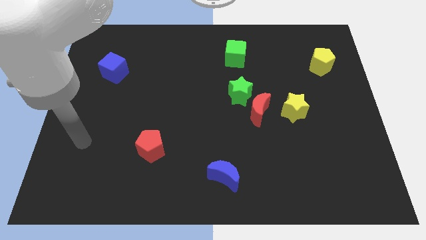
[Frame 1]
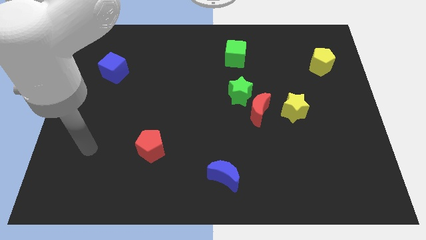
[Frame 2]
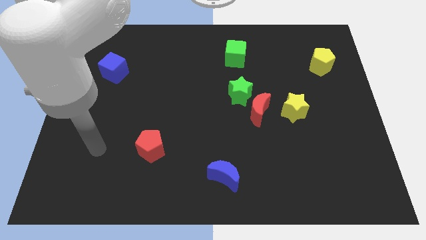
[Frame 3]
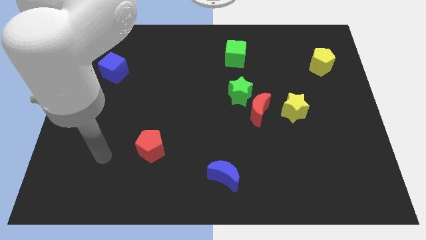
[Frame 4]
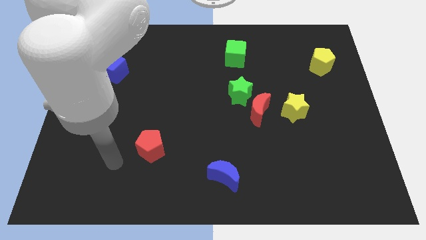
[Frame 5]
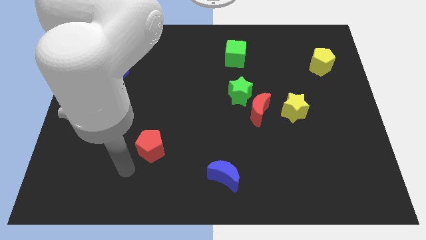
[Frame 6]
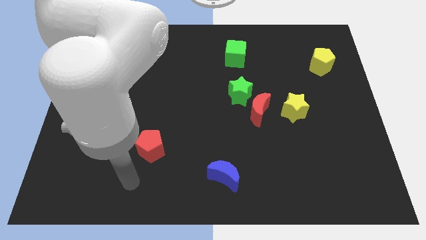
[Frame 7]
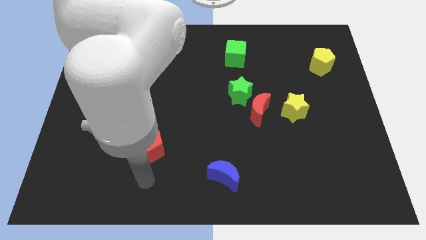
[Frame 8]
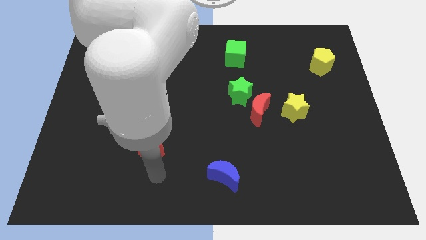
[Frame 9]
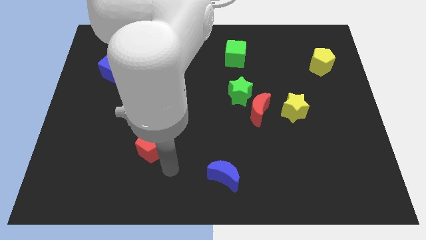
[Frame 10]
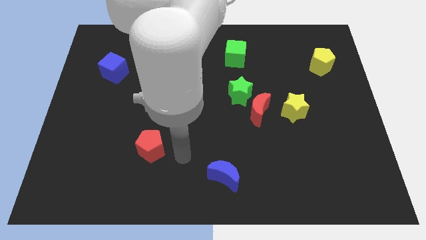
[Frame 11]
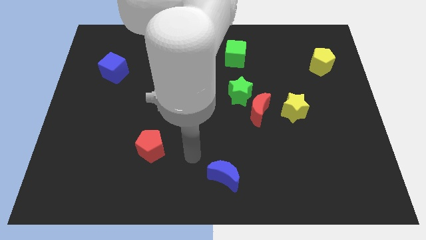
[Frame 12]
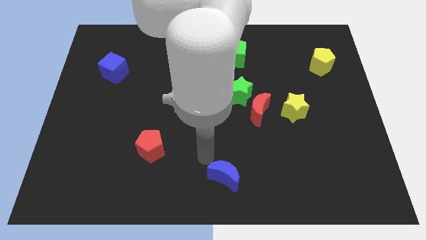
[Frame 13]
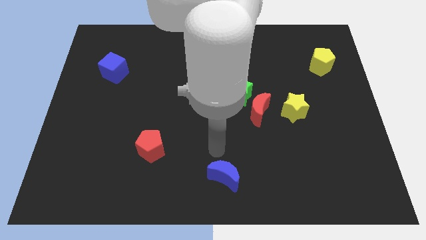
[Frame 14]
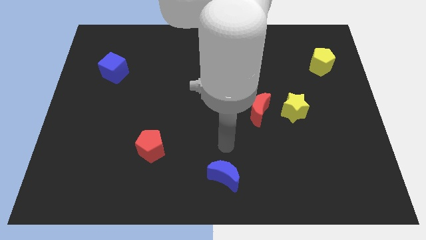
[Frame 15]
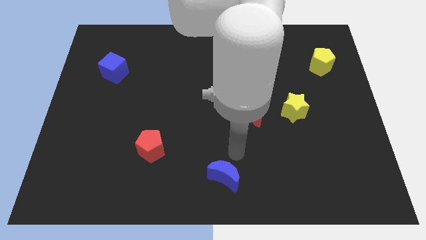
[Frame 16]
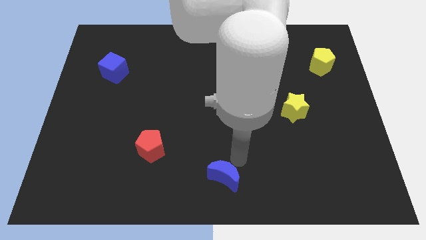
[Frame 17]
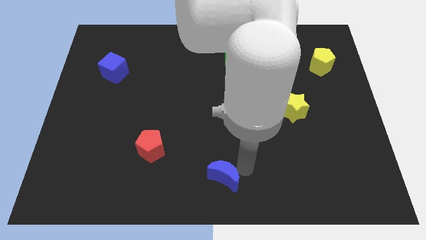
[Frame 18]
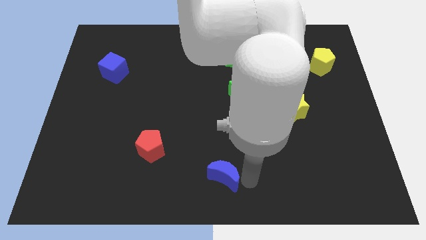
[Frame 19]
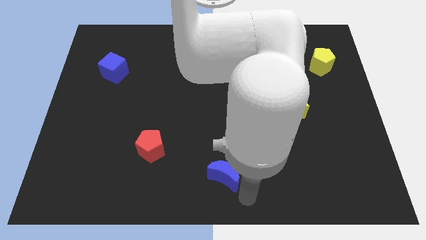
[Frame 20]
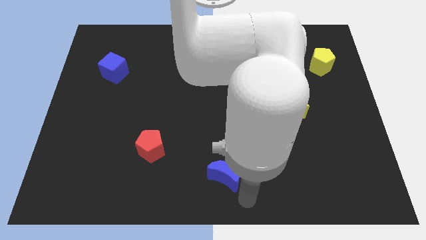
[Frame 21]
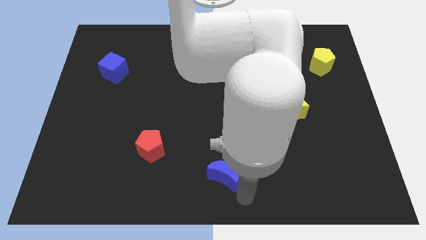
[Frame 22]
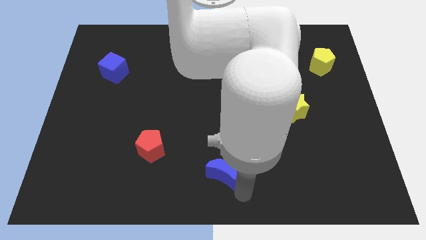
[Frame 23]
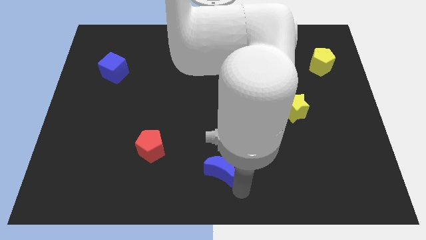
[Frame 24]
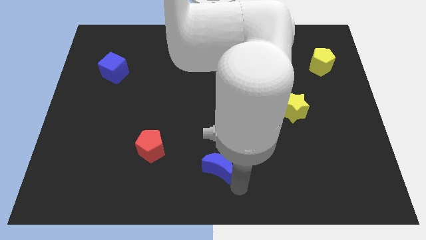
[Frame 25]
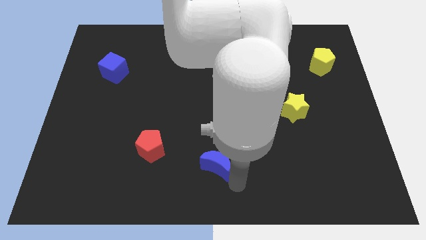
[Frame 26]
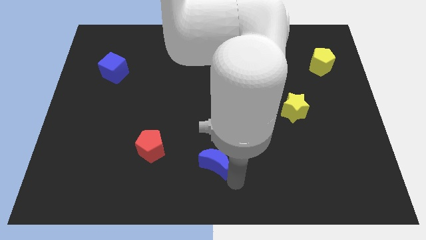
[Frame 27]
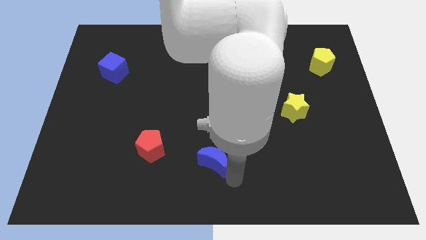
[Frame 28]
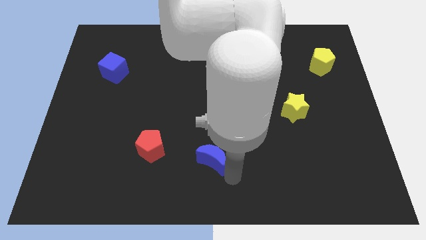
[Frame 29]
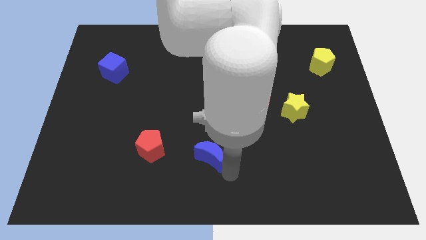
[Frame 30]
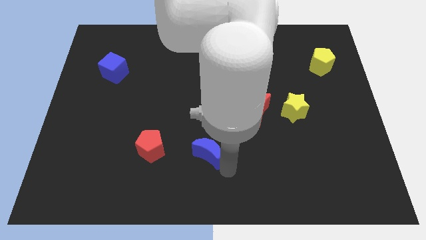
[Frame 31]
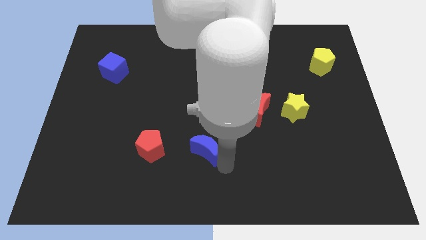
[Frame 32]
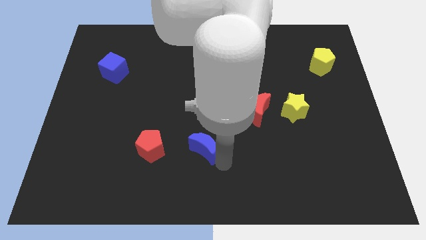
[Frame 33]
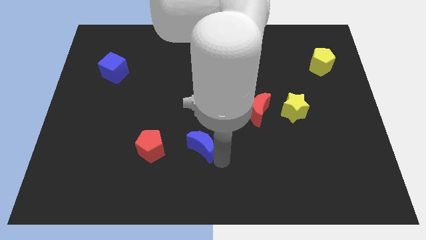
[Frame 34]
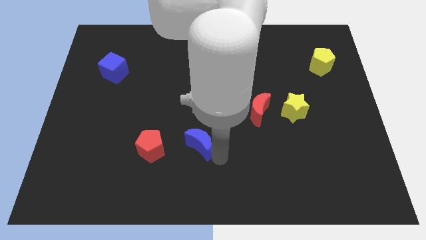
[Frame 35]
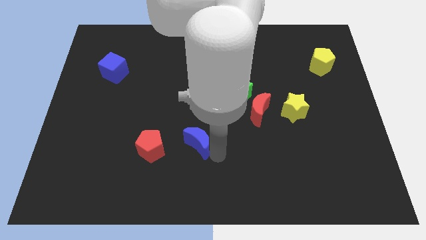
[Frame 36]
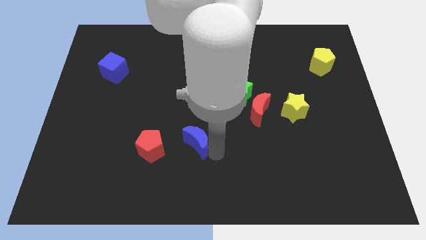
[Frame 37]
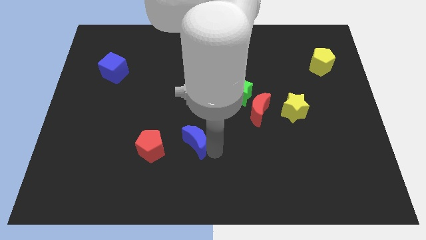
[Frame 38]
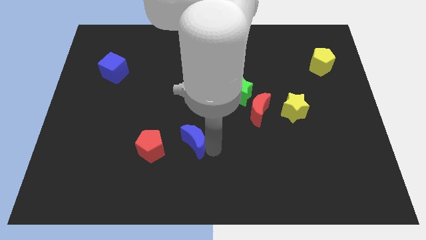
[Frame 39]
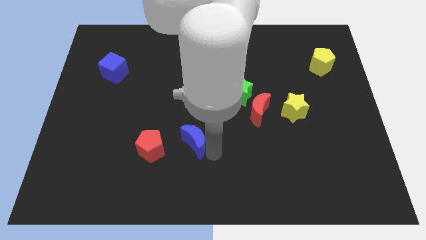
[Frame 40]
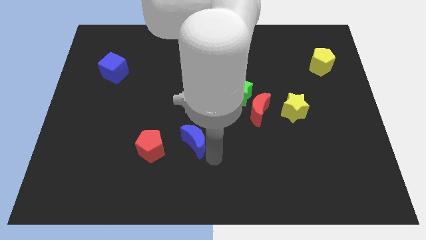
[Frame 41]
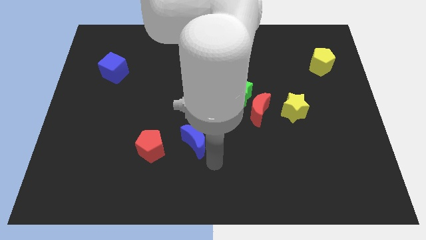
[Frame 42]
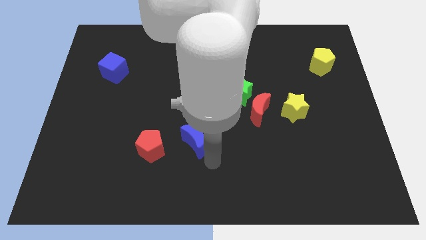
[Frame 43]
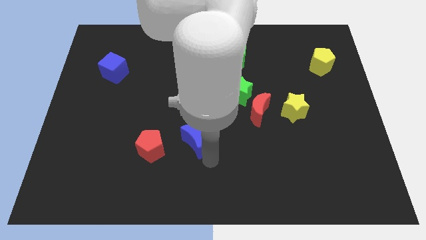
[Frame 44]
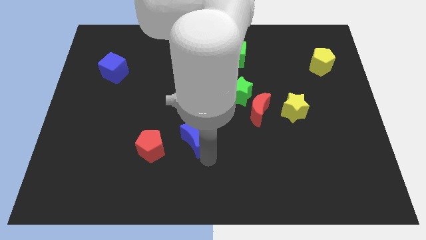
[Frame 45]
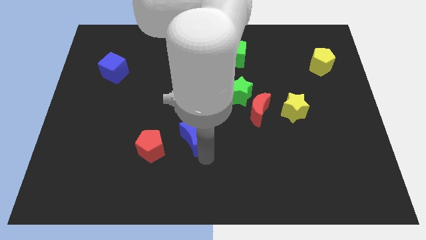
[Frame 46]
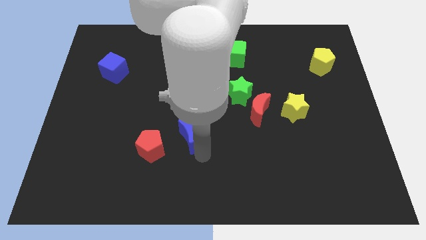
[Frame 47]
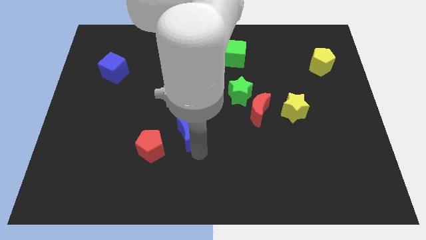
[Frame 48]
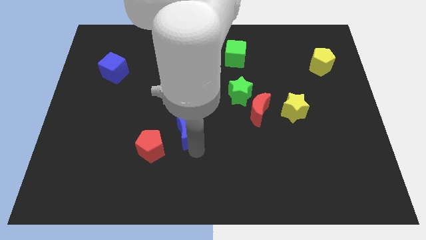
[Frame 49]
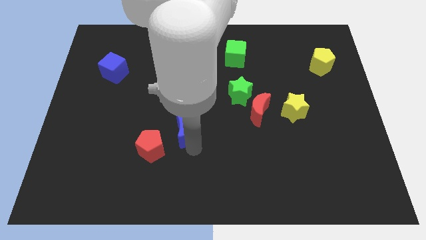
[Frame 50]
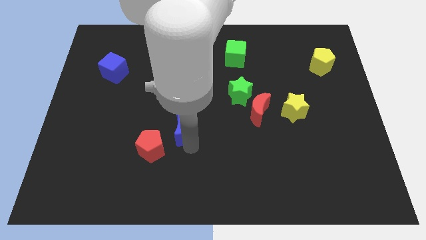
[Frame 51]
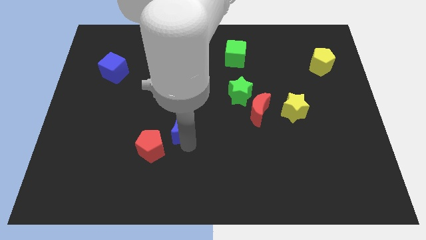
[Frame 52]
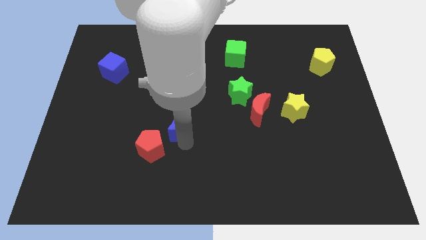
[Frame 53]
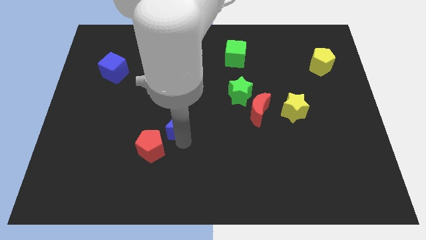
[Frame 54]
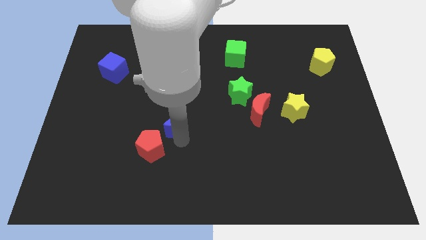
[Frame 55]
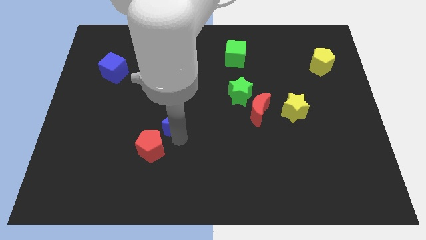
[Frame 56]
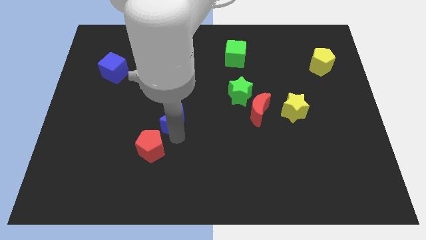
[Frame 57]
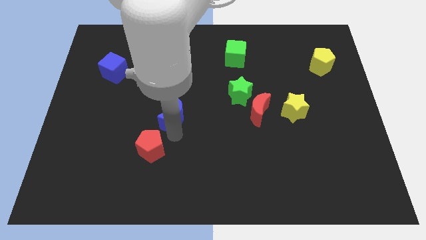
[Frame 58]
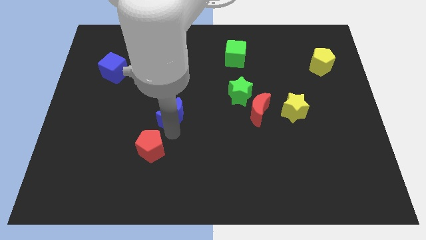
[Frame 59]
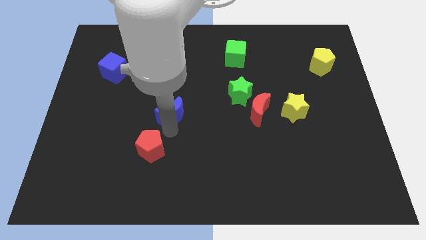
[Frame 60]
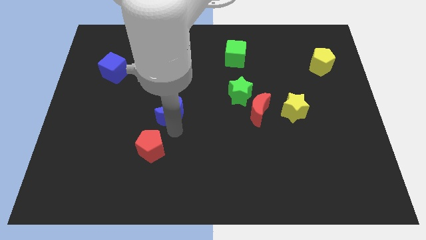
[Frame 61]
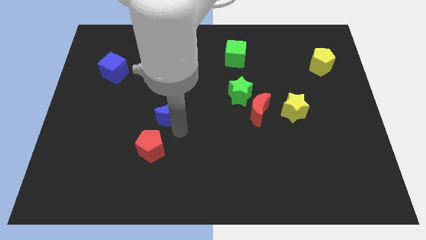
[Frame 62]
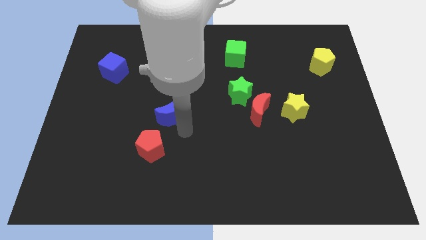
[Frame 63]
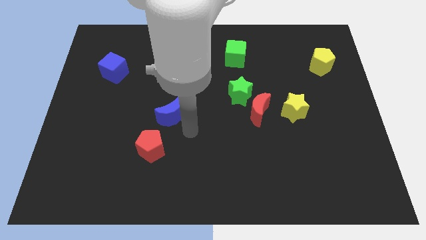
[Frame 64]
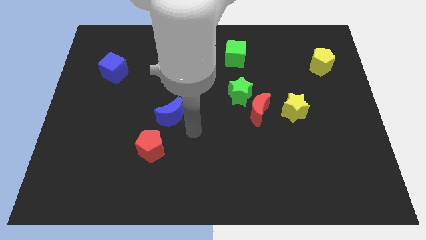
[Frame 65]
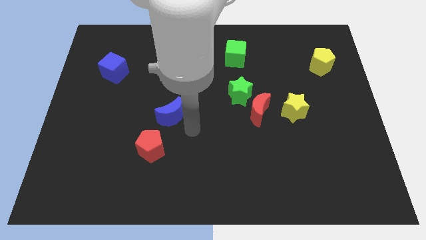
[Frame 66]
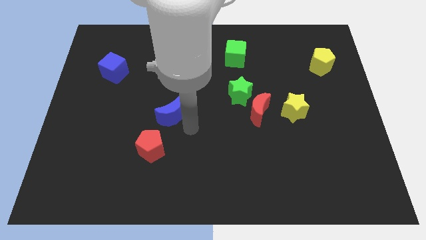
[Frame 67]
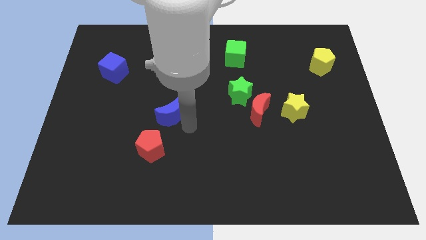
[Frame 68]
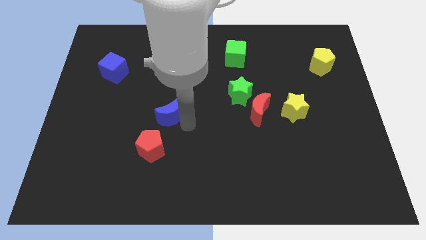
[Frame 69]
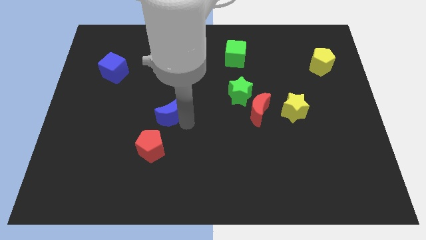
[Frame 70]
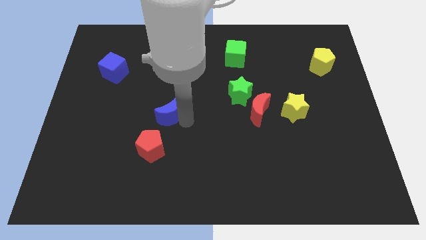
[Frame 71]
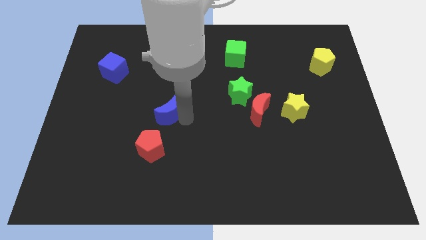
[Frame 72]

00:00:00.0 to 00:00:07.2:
push the blue moon upwards and then to the left

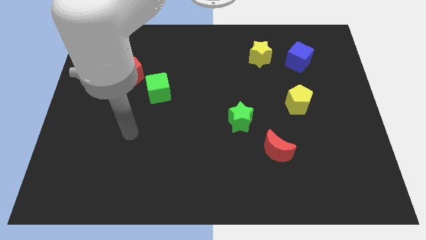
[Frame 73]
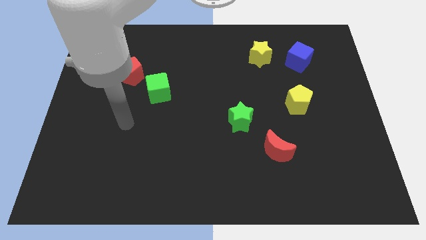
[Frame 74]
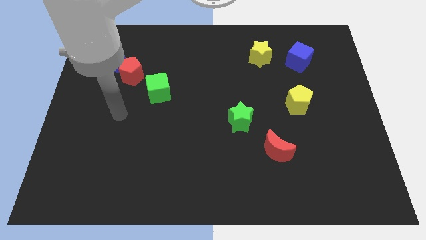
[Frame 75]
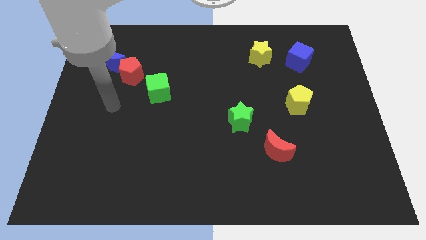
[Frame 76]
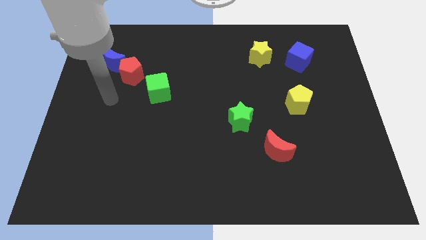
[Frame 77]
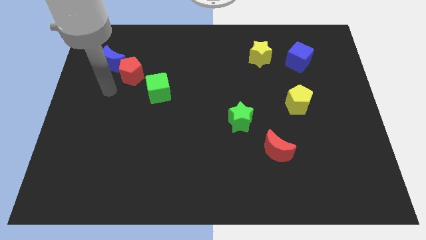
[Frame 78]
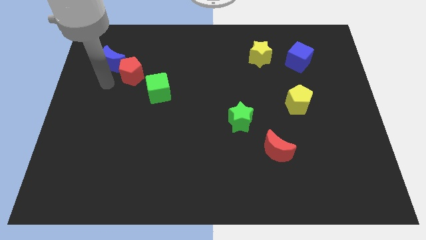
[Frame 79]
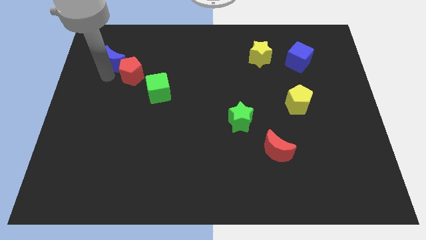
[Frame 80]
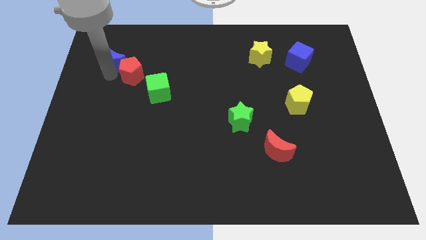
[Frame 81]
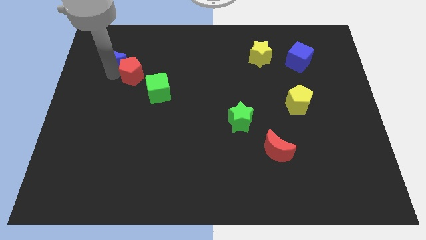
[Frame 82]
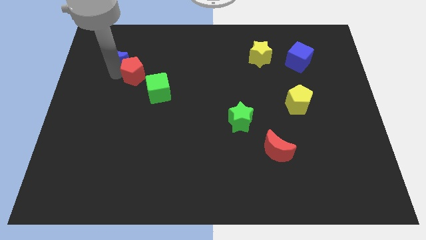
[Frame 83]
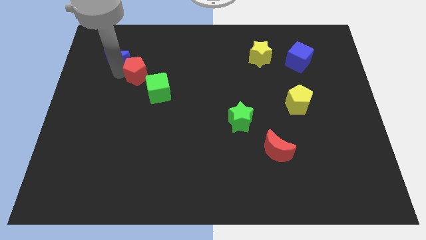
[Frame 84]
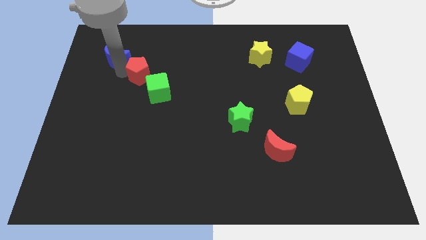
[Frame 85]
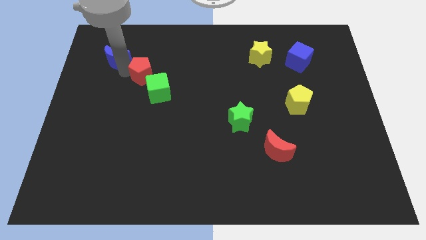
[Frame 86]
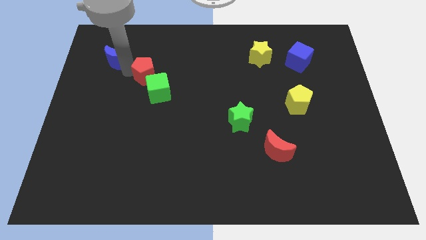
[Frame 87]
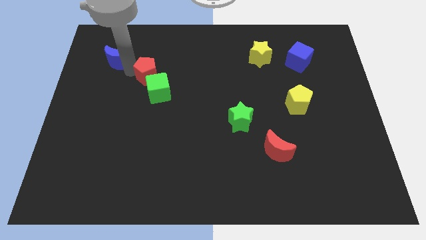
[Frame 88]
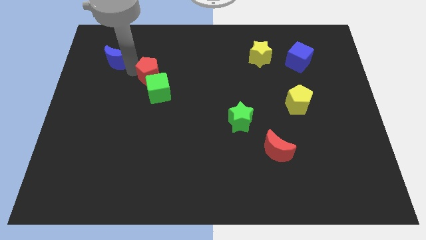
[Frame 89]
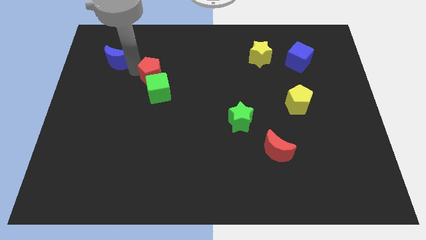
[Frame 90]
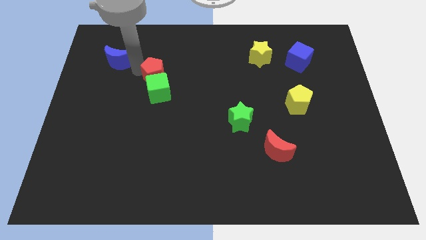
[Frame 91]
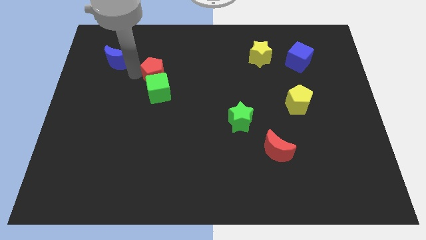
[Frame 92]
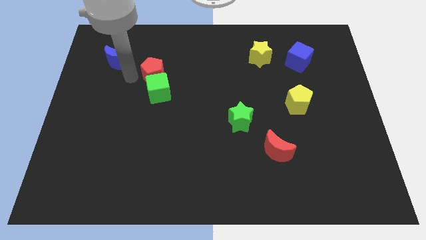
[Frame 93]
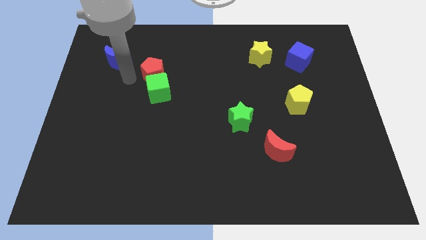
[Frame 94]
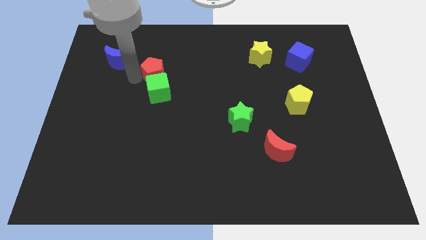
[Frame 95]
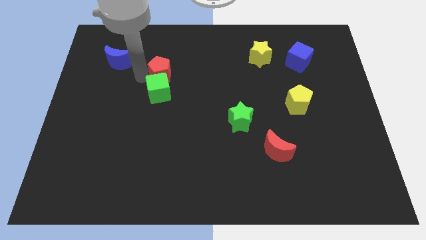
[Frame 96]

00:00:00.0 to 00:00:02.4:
slightly move the red pentagon right
